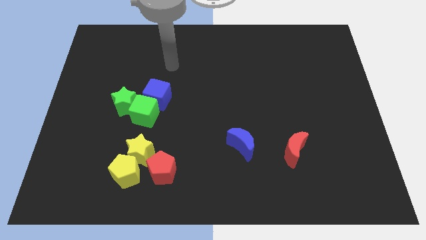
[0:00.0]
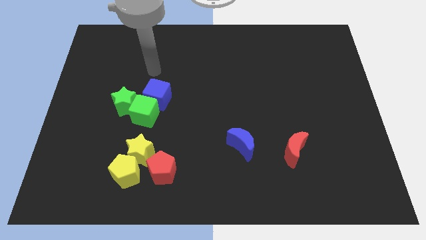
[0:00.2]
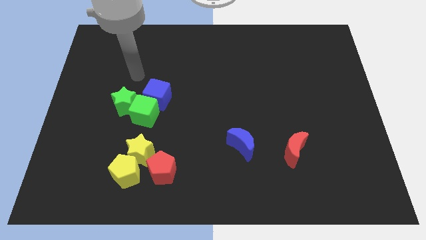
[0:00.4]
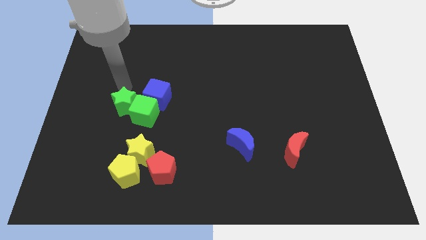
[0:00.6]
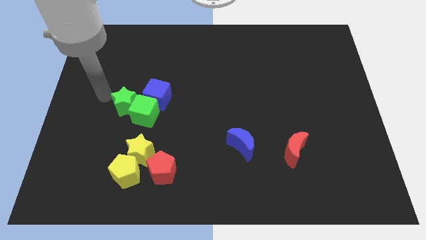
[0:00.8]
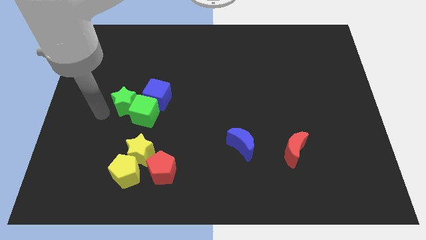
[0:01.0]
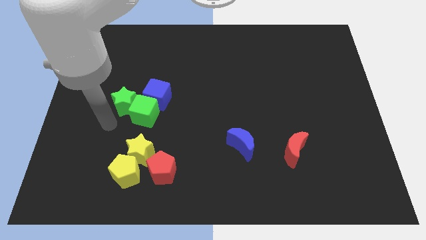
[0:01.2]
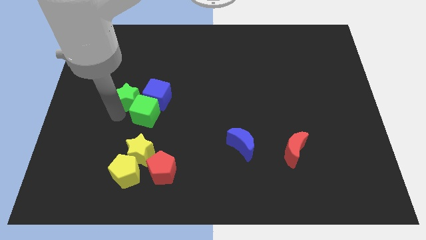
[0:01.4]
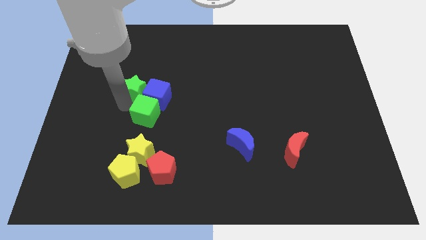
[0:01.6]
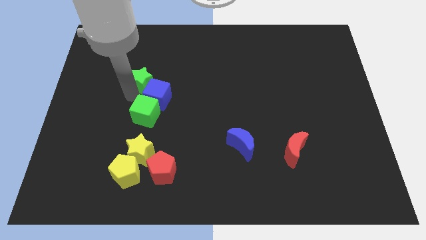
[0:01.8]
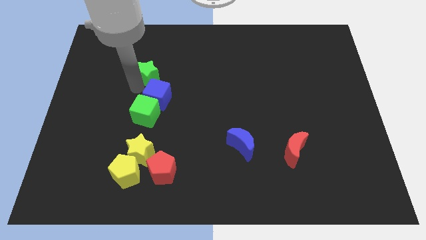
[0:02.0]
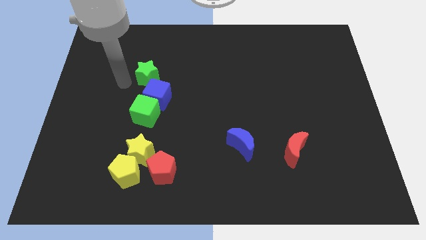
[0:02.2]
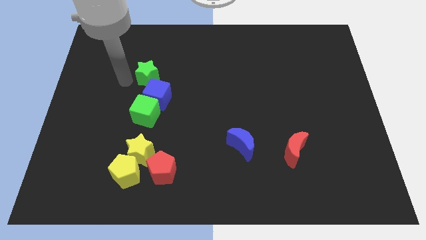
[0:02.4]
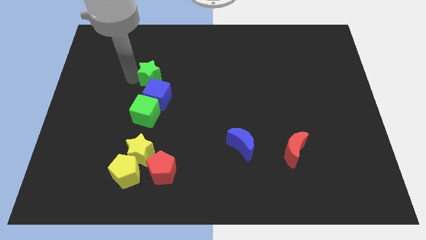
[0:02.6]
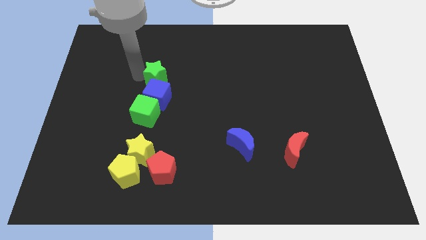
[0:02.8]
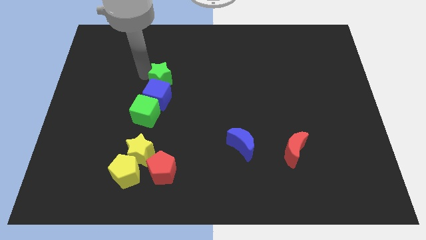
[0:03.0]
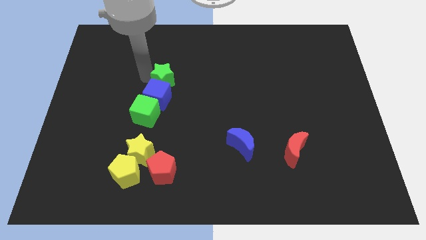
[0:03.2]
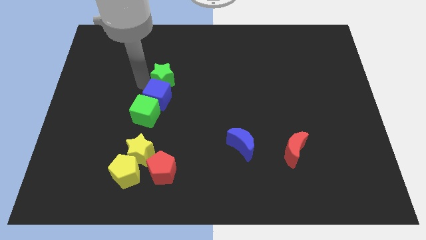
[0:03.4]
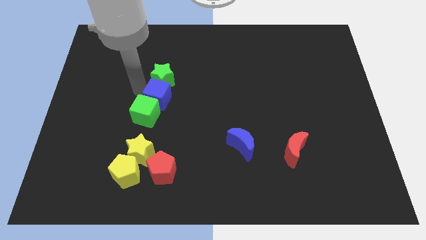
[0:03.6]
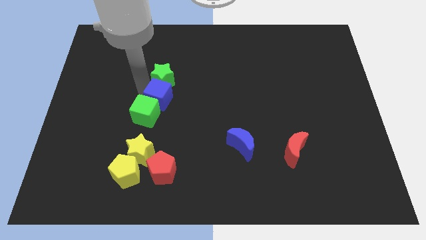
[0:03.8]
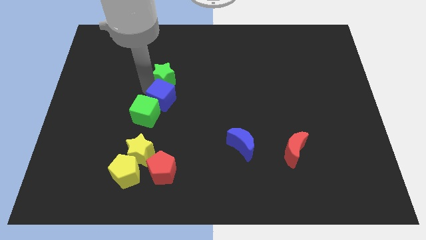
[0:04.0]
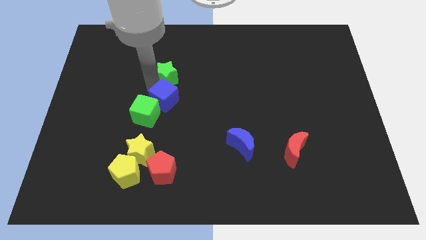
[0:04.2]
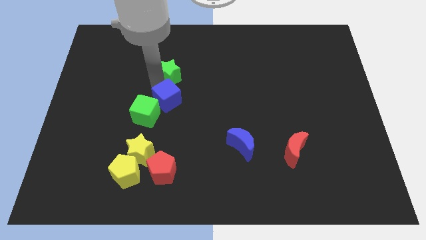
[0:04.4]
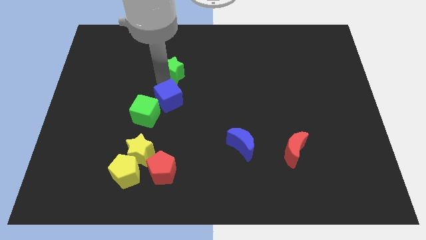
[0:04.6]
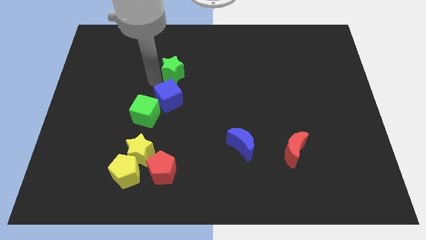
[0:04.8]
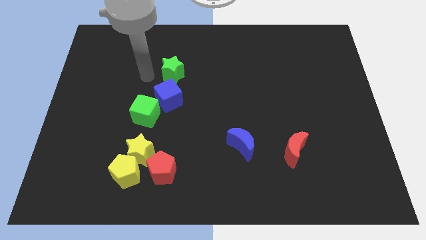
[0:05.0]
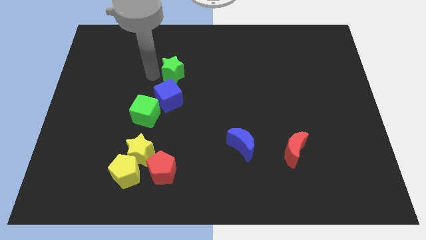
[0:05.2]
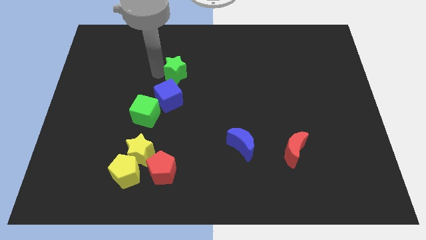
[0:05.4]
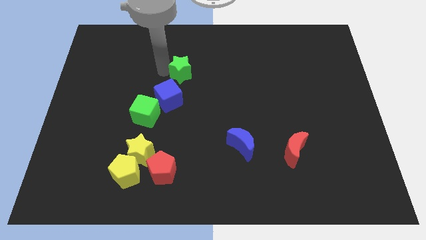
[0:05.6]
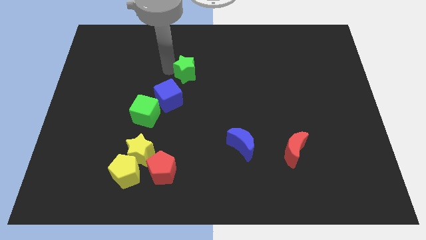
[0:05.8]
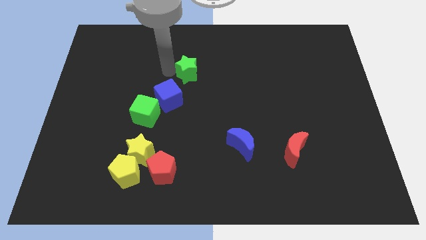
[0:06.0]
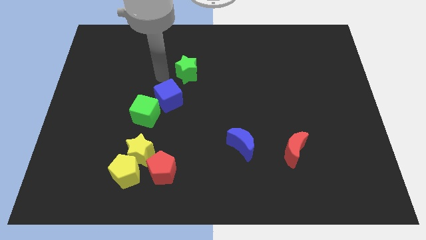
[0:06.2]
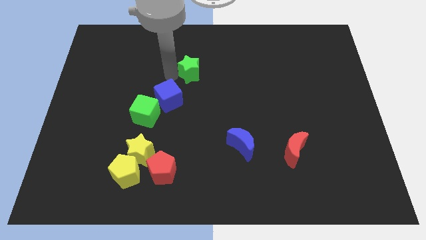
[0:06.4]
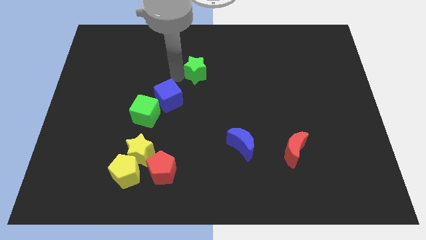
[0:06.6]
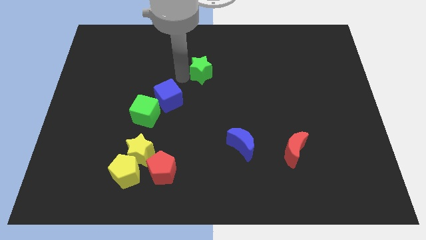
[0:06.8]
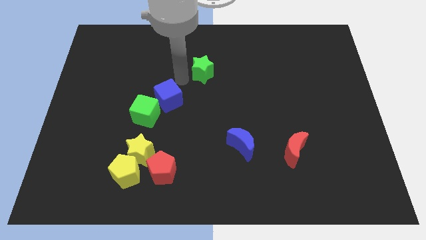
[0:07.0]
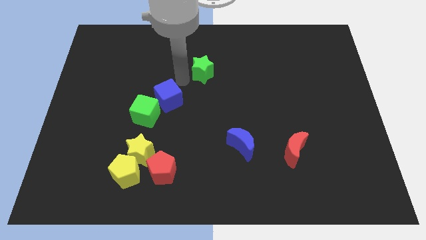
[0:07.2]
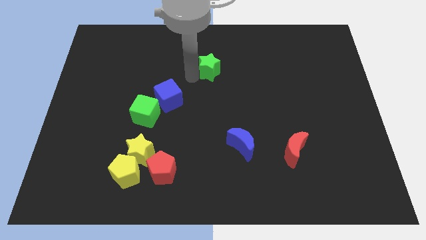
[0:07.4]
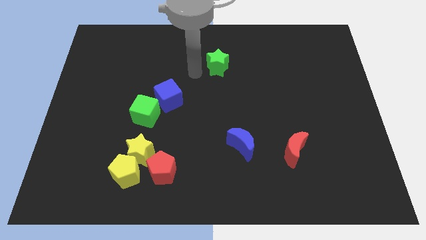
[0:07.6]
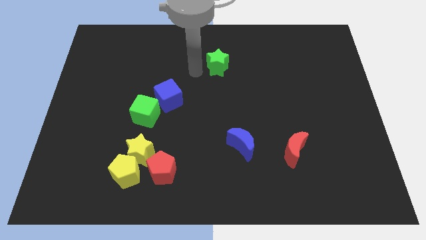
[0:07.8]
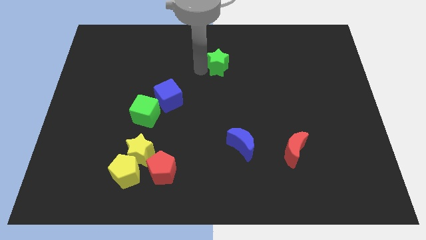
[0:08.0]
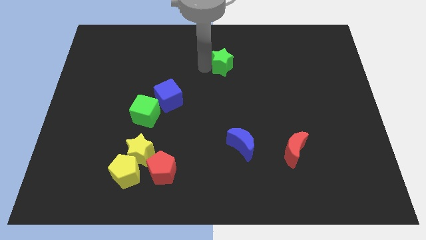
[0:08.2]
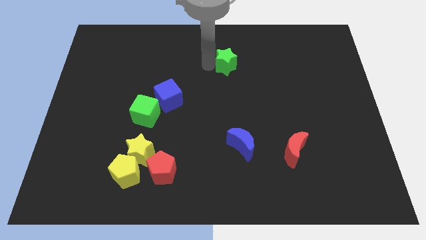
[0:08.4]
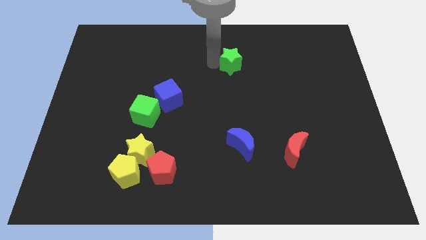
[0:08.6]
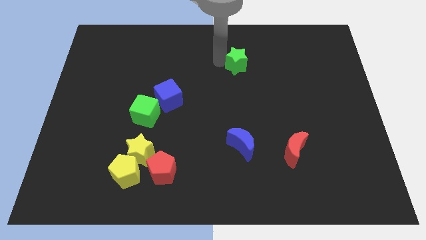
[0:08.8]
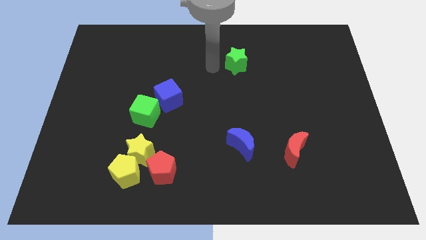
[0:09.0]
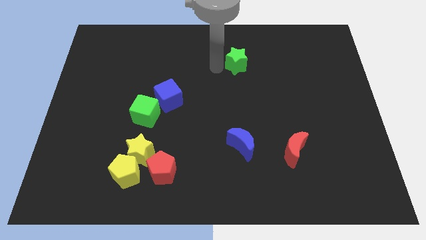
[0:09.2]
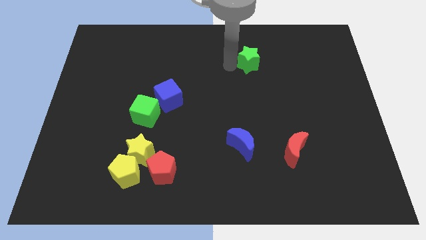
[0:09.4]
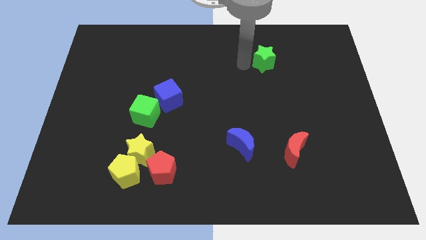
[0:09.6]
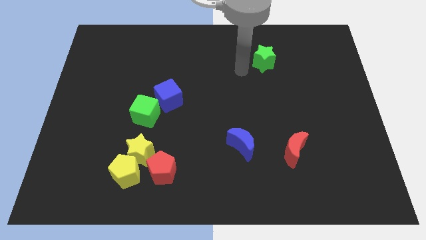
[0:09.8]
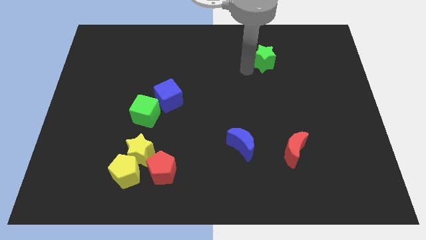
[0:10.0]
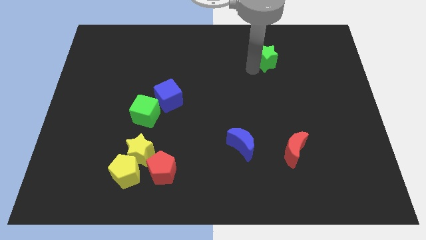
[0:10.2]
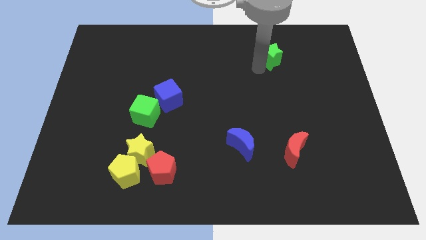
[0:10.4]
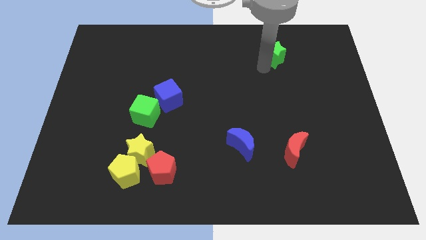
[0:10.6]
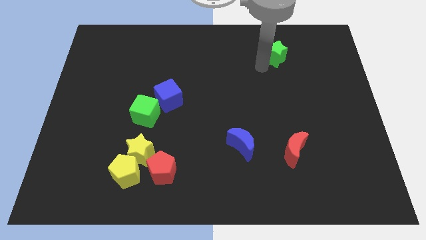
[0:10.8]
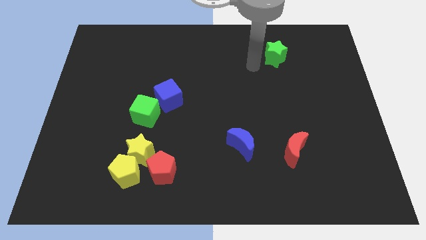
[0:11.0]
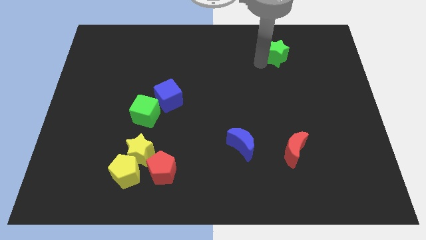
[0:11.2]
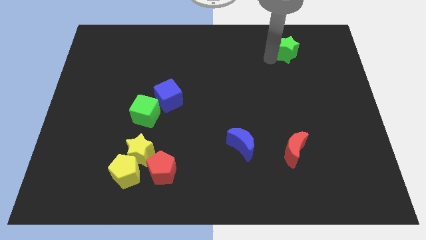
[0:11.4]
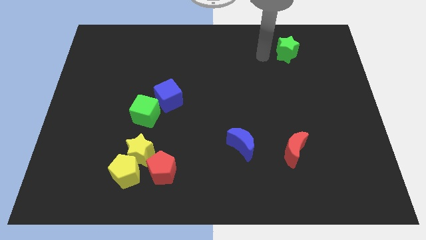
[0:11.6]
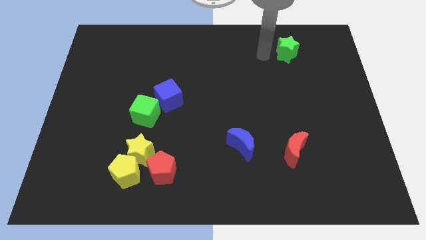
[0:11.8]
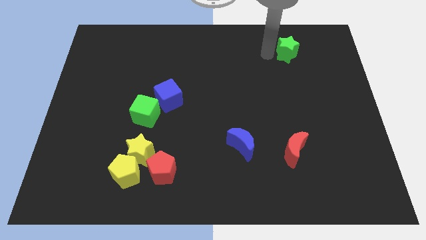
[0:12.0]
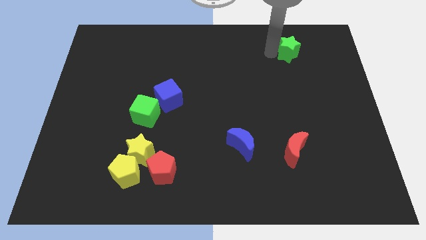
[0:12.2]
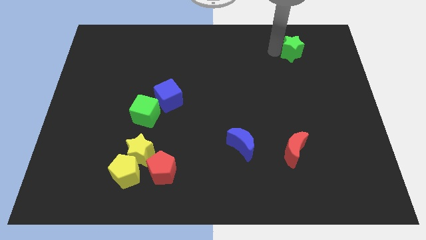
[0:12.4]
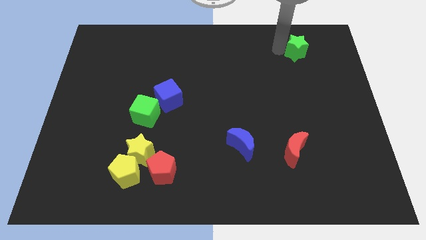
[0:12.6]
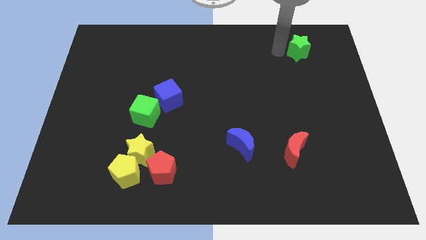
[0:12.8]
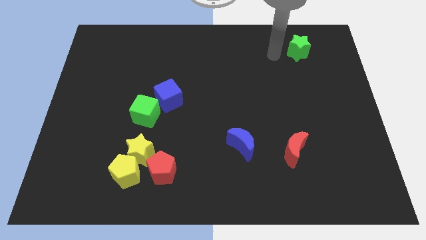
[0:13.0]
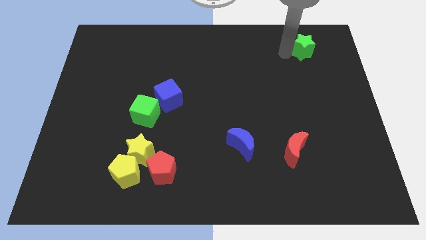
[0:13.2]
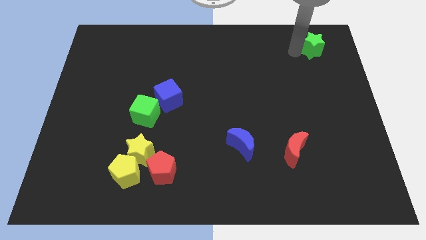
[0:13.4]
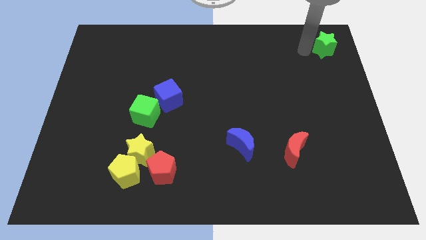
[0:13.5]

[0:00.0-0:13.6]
move the green star to the upper right corner
